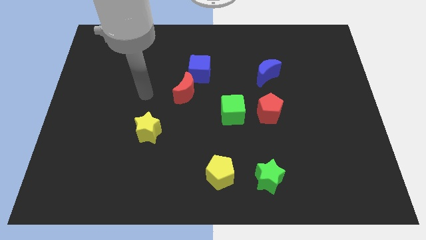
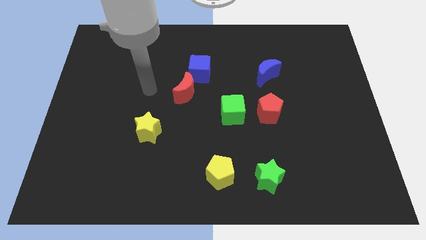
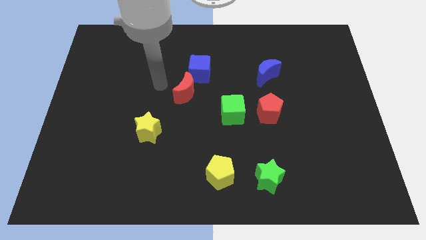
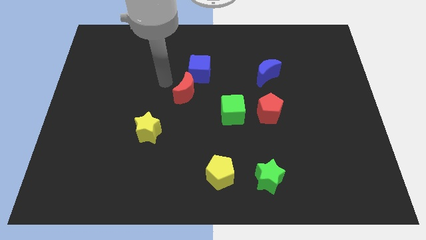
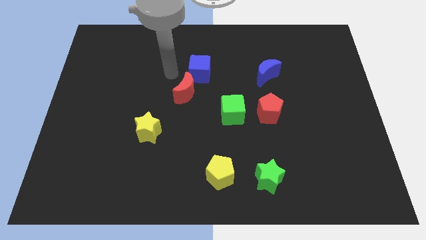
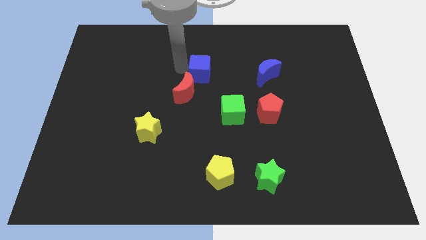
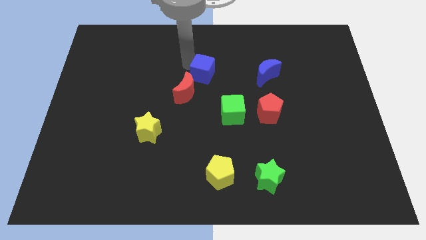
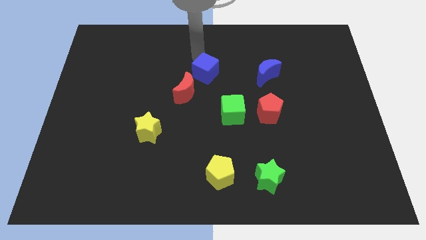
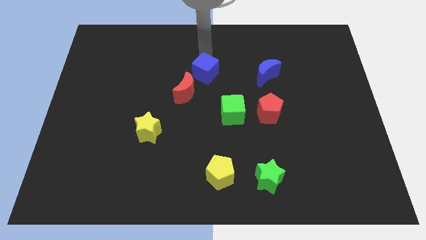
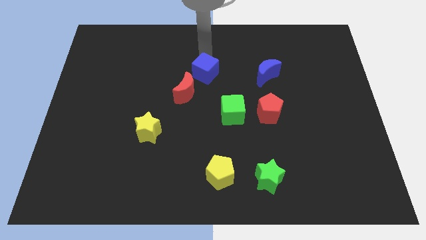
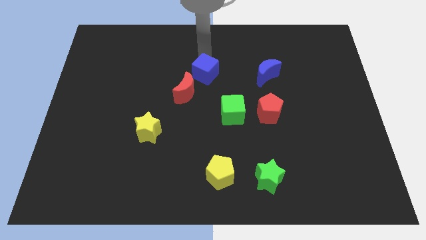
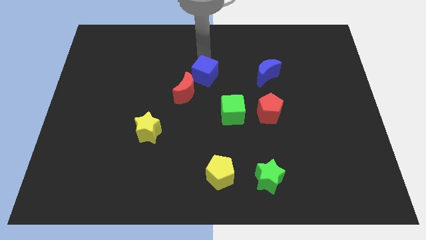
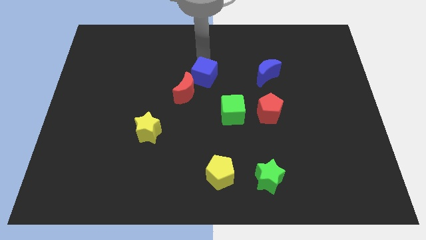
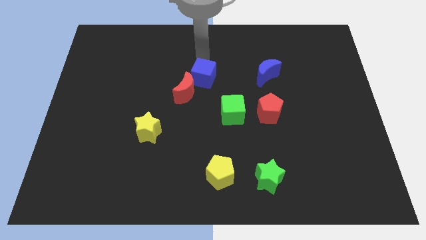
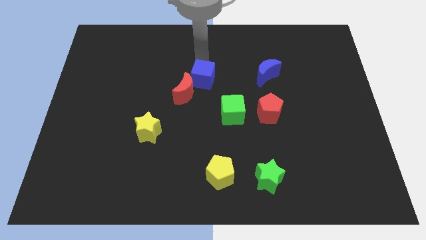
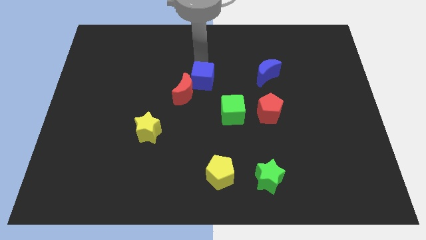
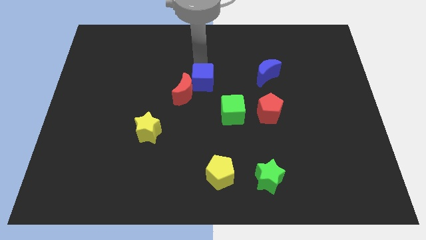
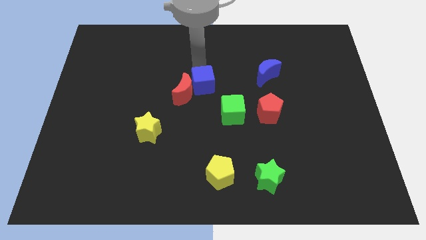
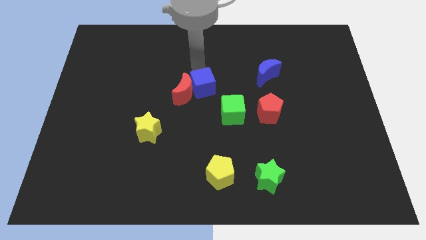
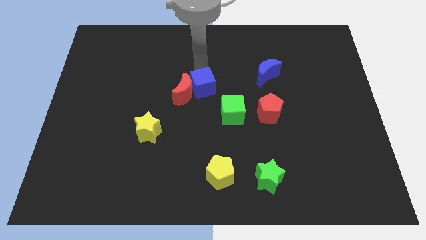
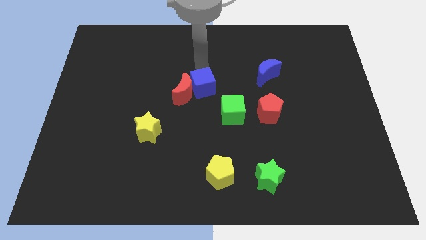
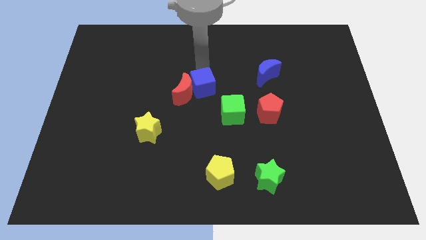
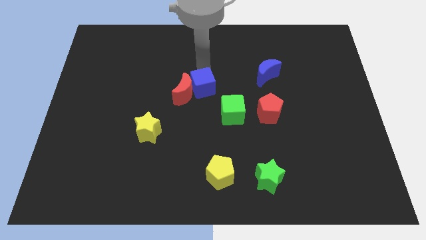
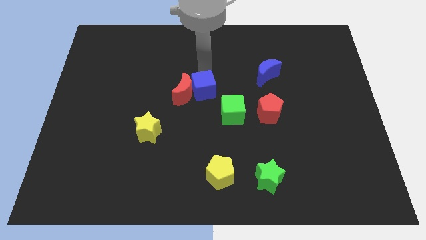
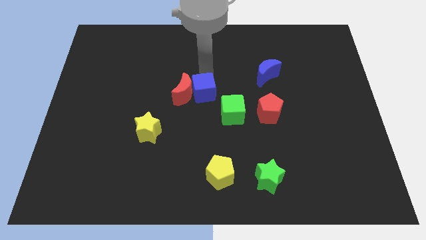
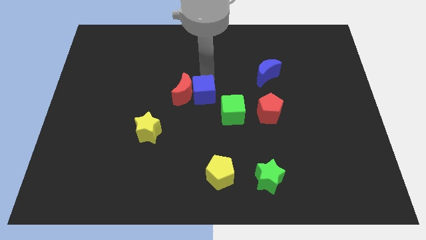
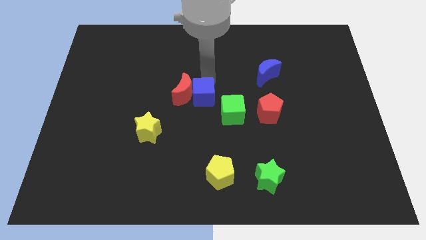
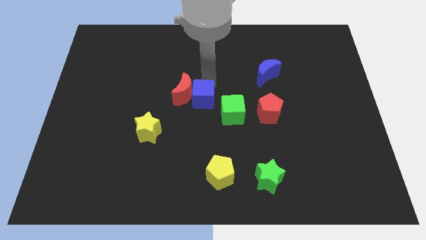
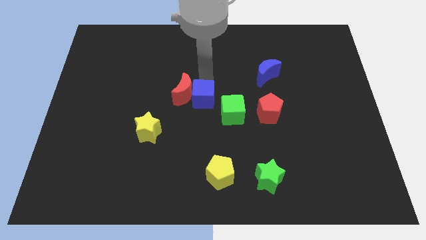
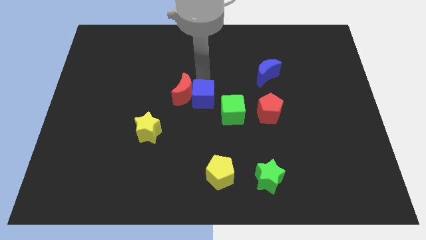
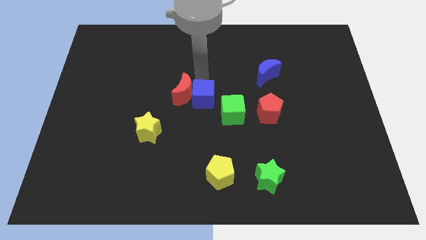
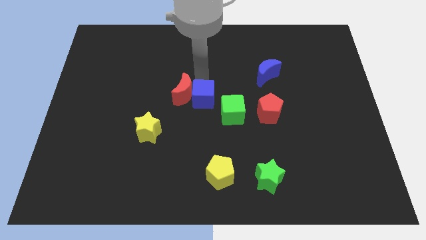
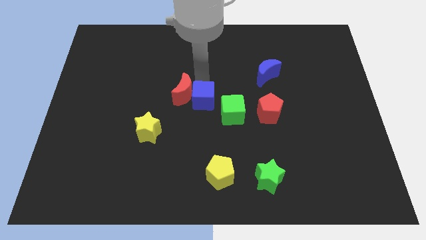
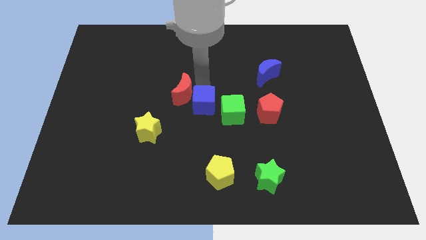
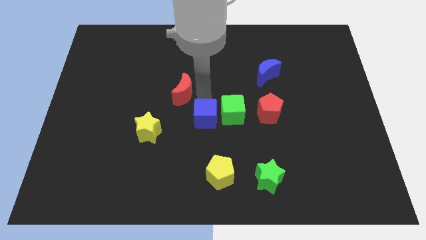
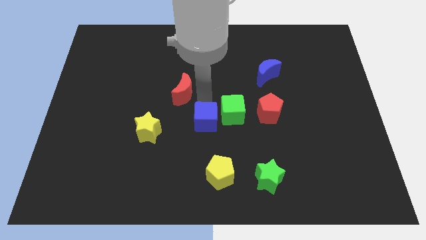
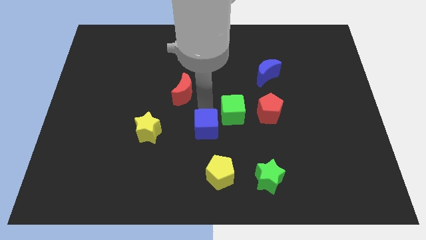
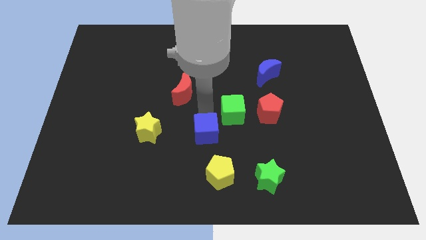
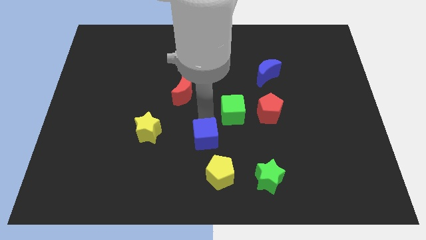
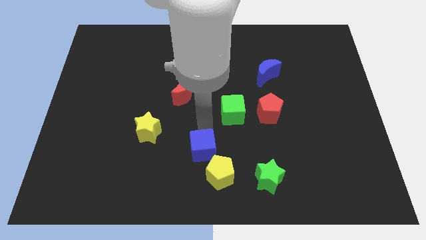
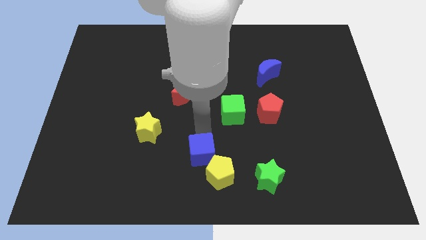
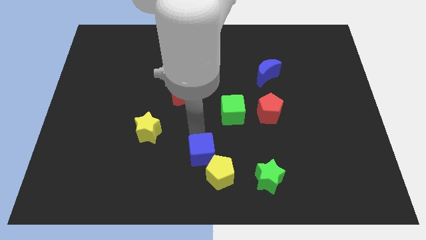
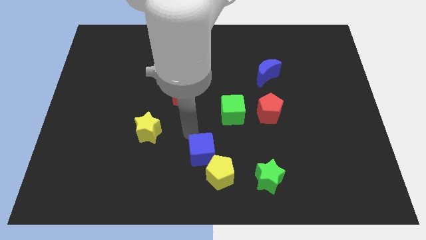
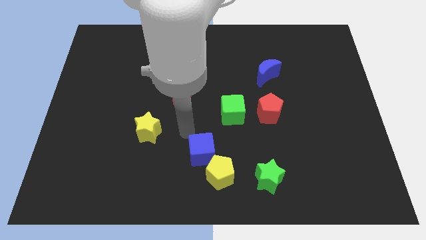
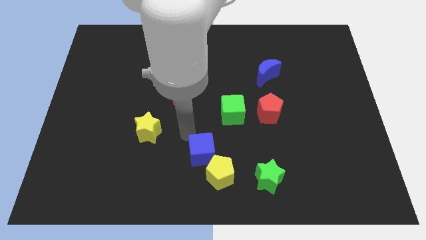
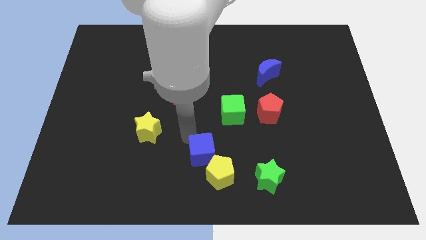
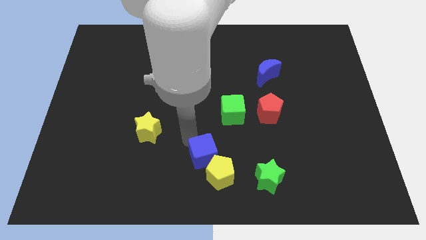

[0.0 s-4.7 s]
put the blue cube next to the yellow pentagon

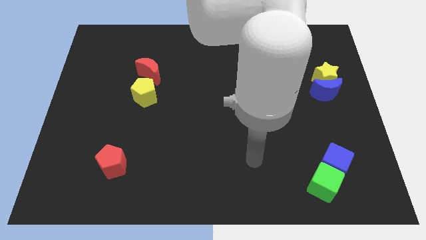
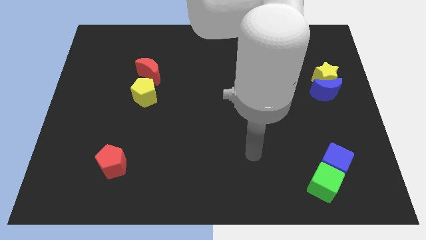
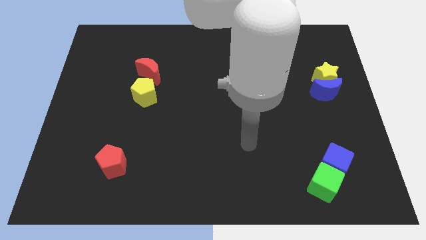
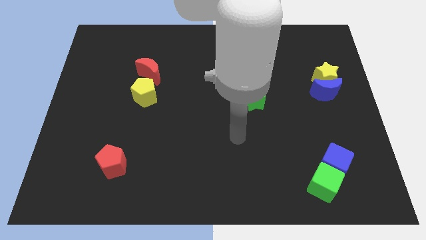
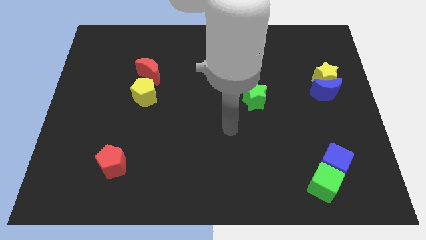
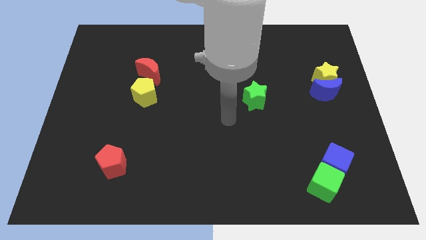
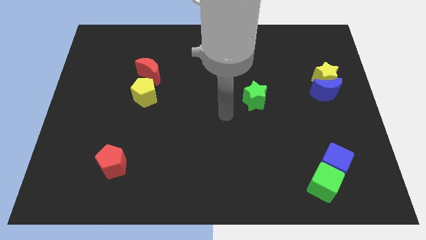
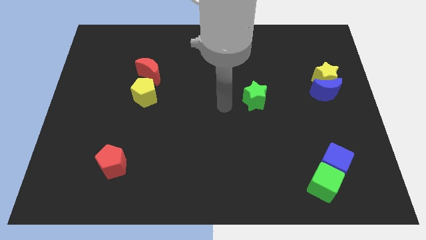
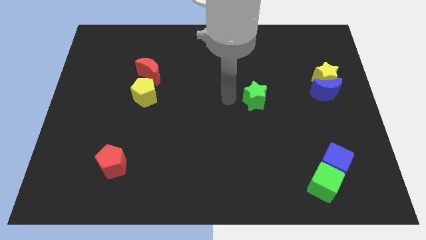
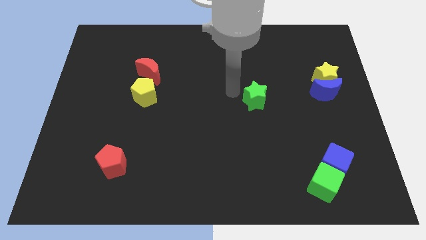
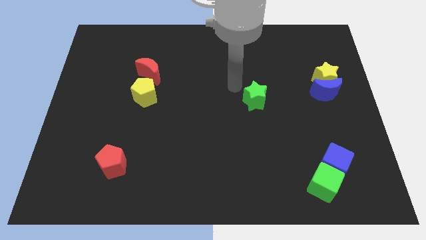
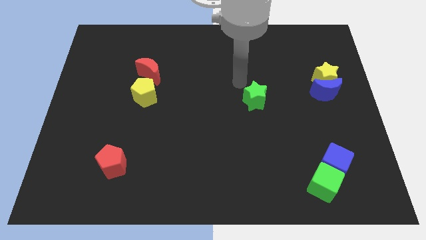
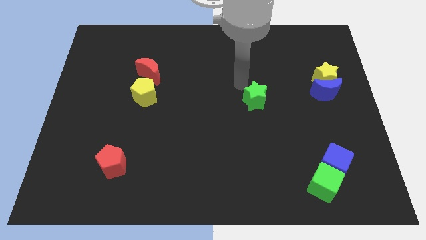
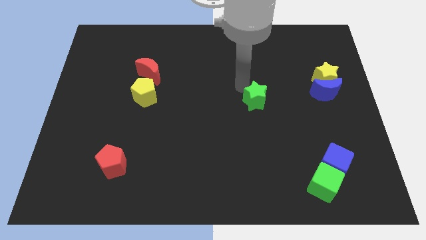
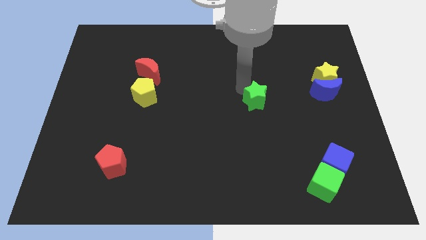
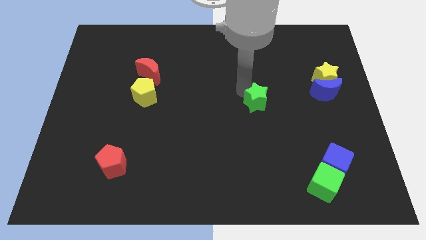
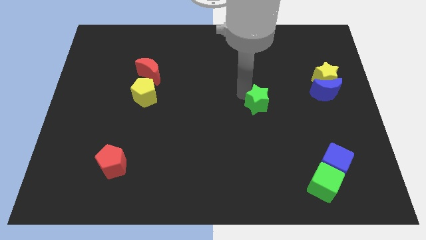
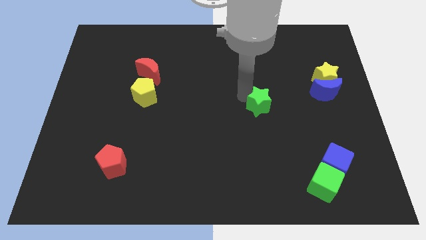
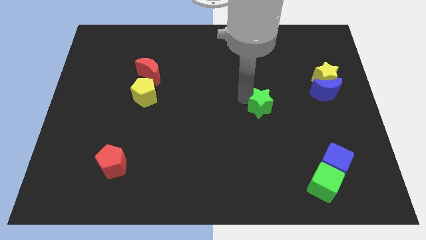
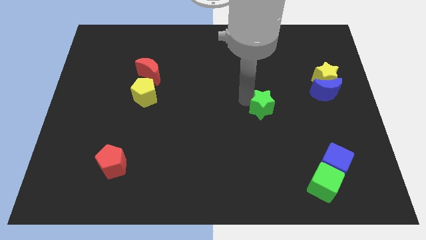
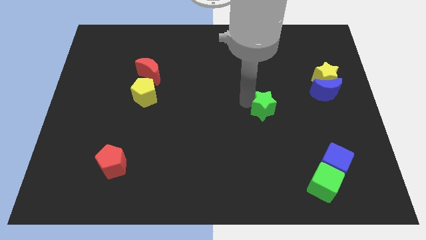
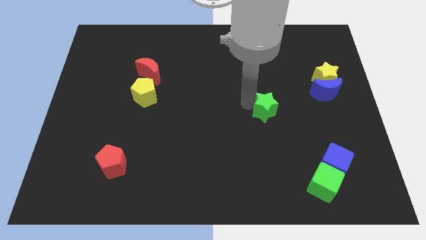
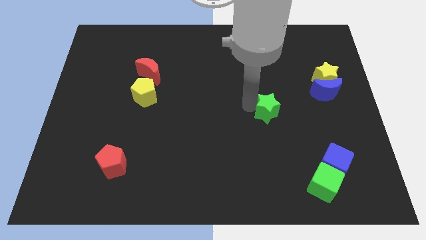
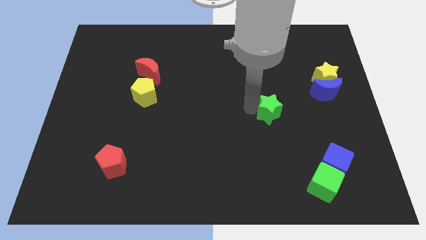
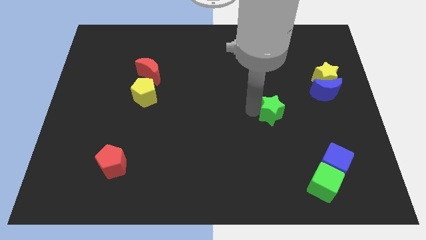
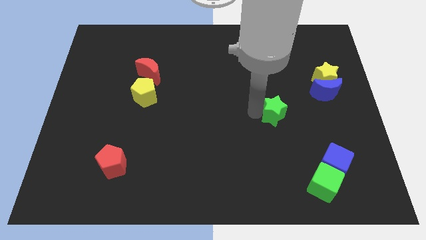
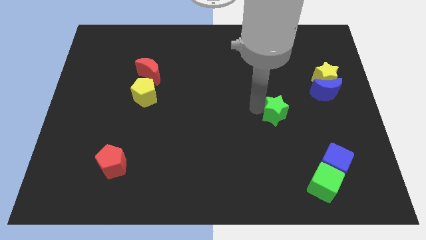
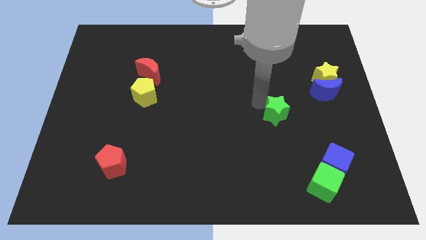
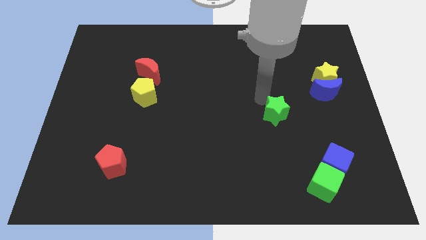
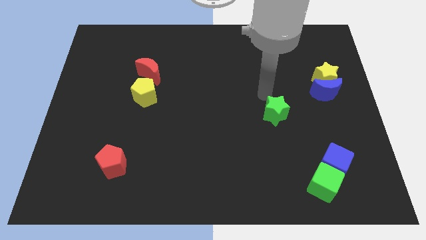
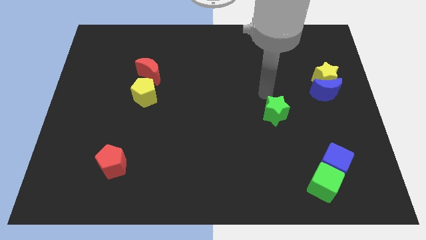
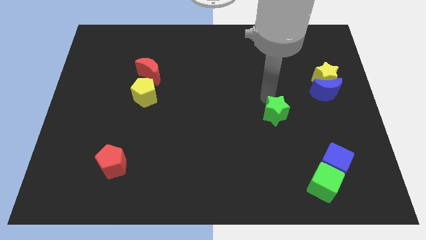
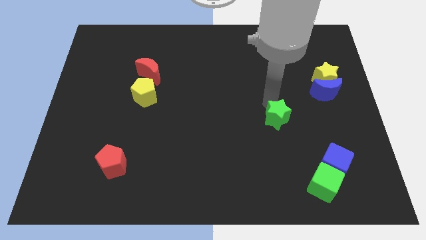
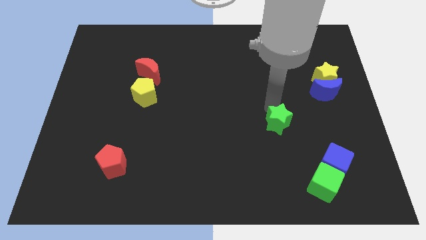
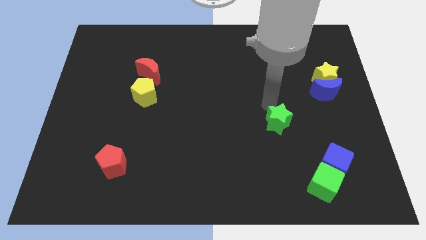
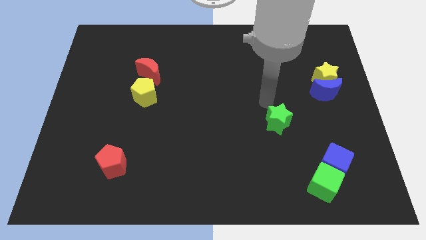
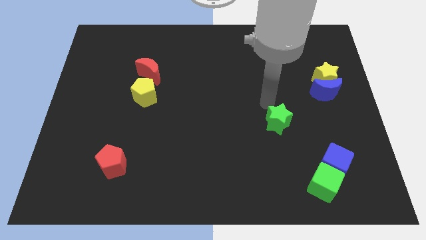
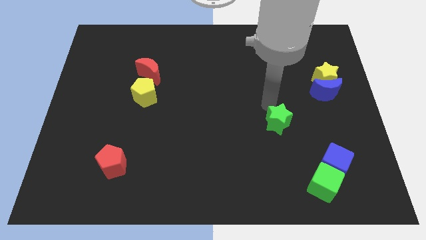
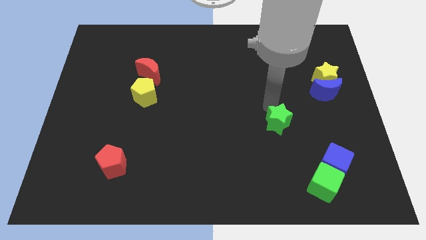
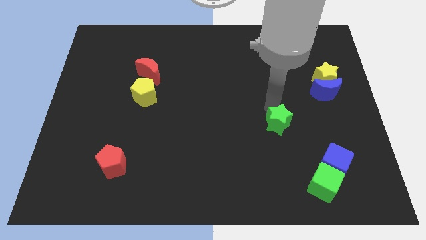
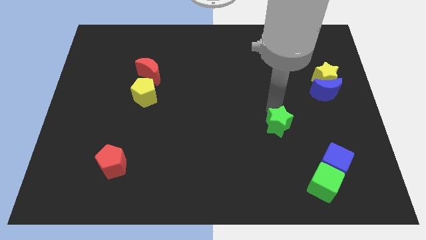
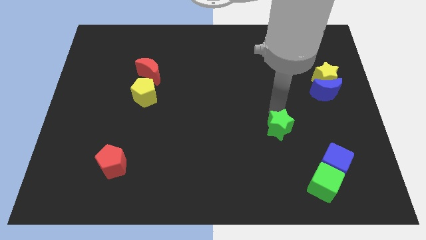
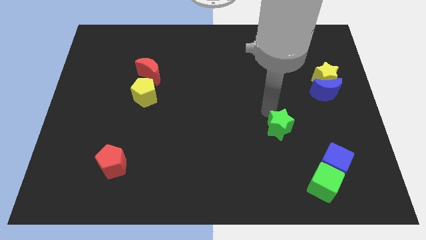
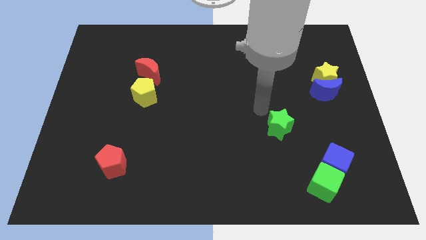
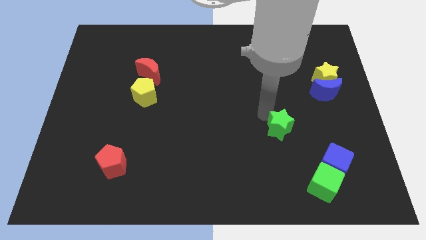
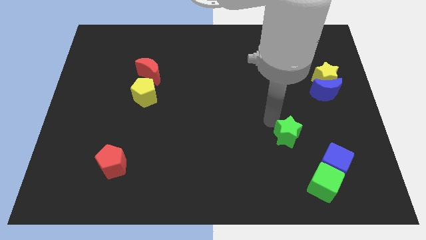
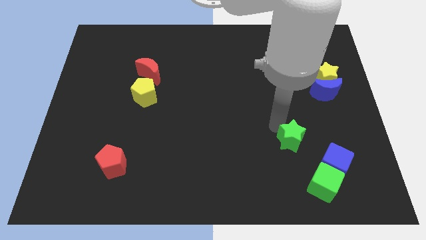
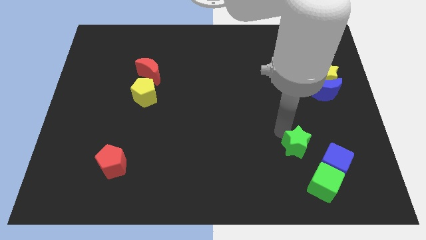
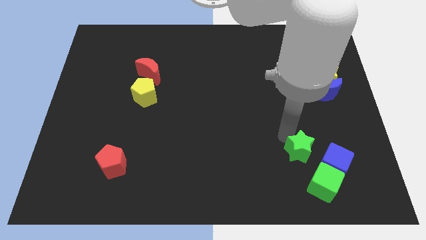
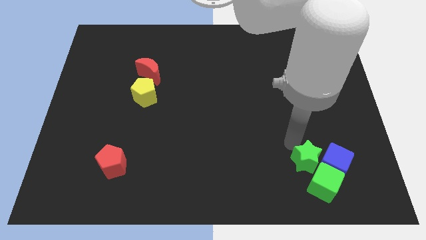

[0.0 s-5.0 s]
slide the green star towards the green cube
